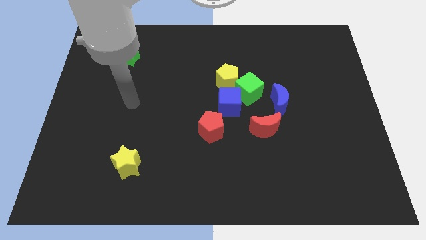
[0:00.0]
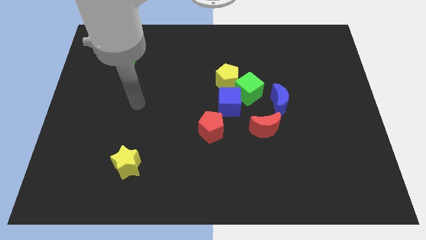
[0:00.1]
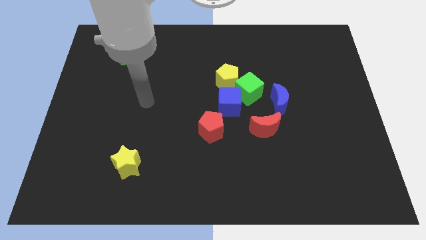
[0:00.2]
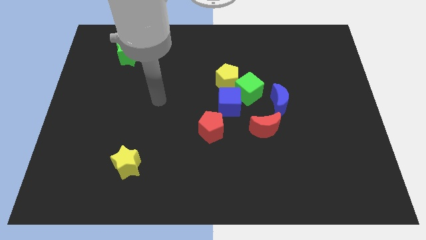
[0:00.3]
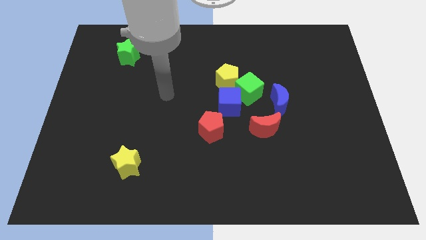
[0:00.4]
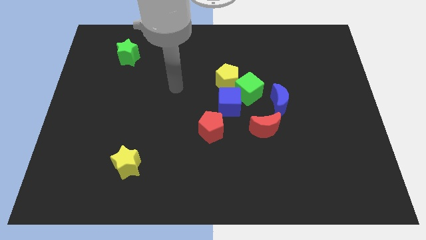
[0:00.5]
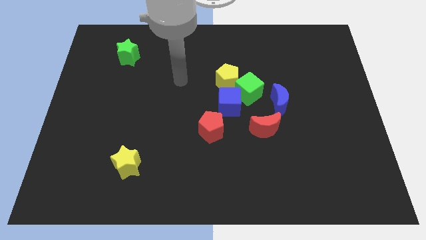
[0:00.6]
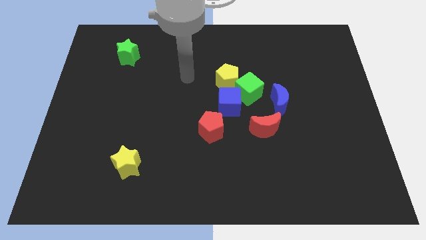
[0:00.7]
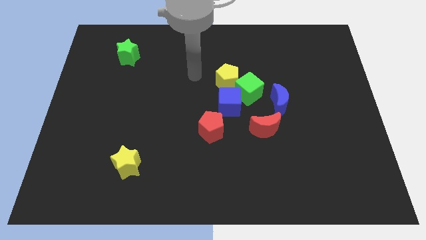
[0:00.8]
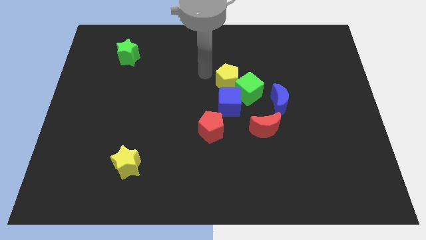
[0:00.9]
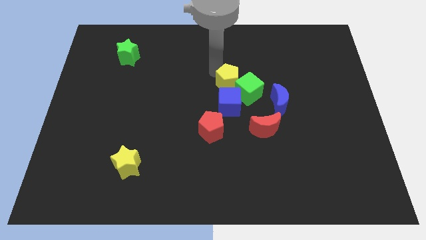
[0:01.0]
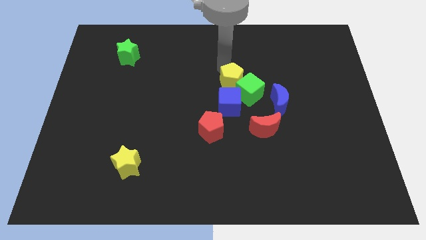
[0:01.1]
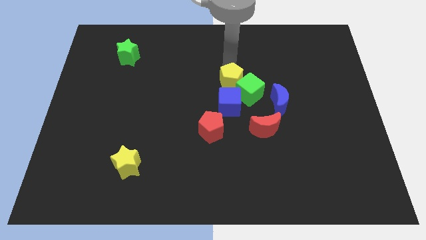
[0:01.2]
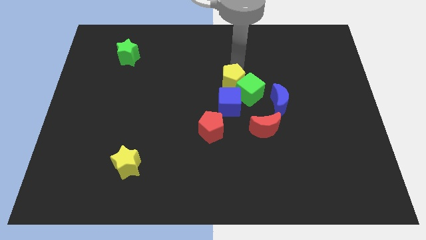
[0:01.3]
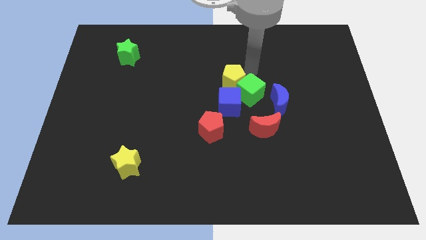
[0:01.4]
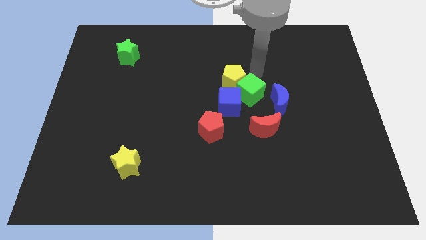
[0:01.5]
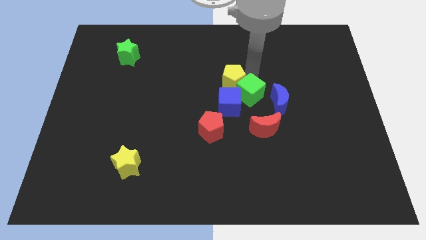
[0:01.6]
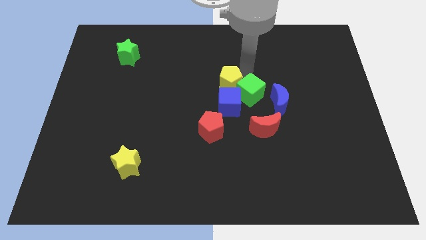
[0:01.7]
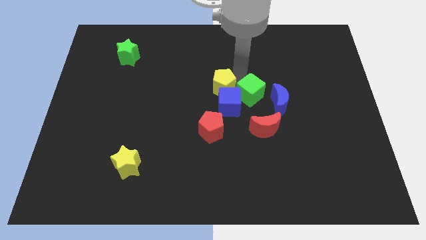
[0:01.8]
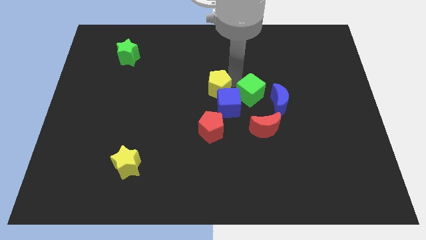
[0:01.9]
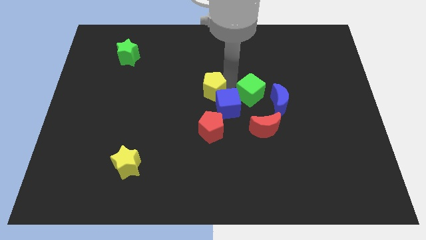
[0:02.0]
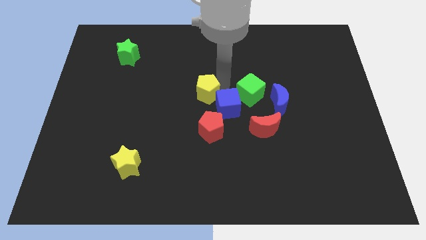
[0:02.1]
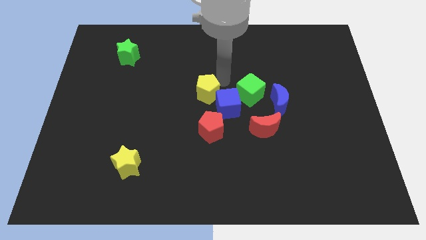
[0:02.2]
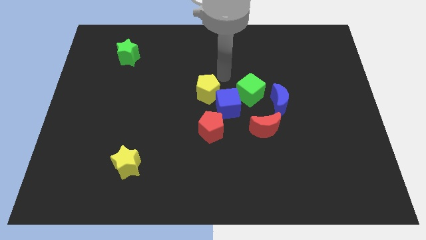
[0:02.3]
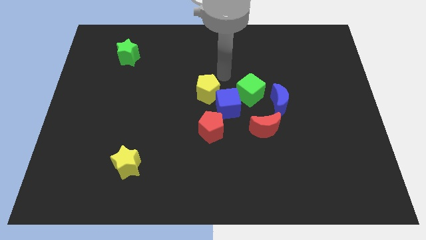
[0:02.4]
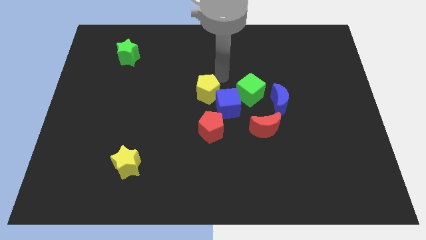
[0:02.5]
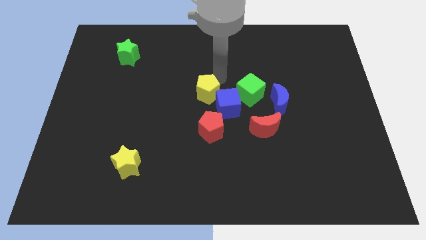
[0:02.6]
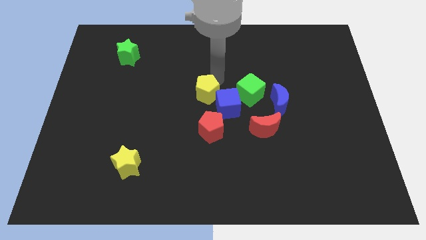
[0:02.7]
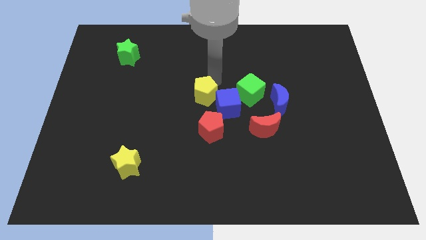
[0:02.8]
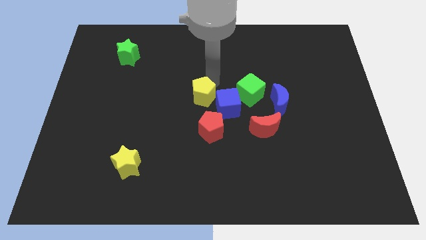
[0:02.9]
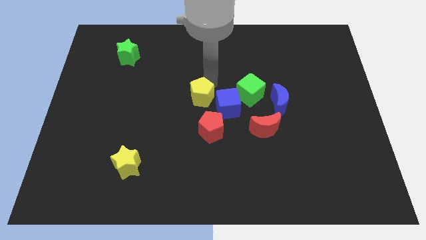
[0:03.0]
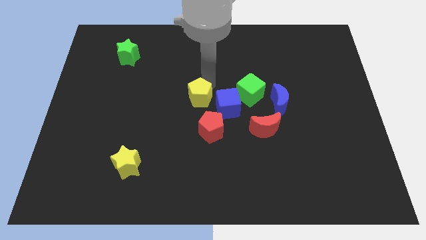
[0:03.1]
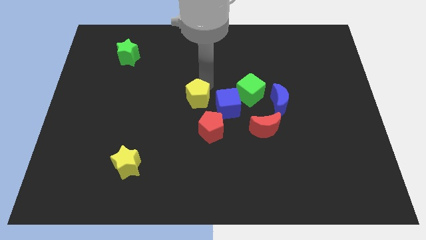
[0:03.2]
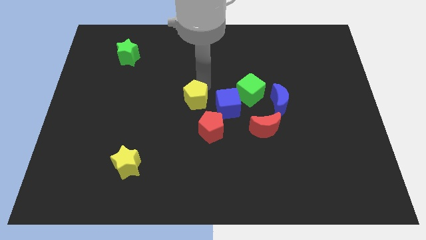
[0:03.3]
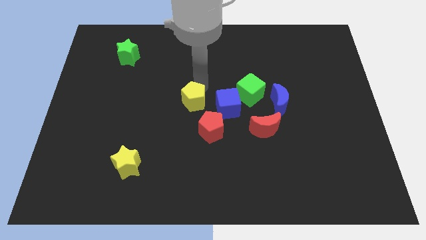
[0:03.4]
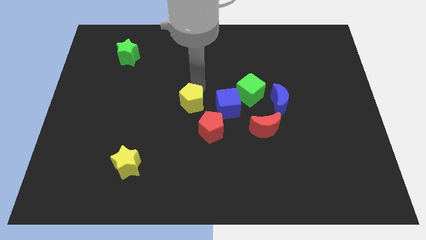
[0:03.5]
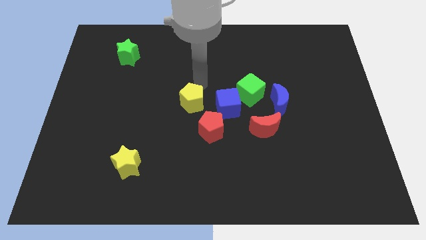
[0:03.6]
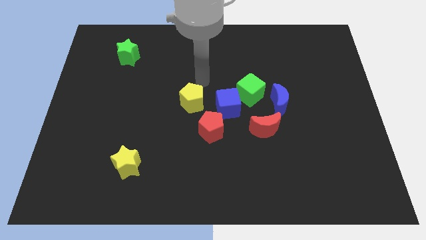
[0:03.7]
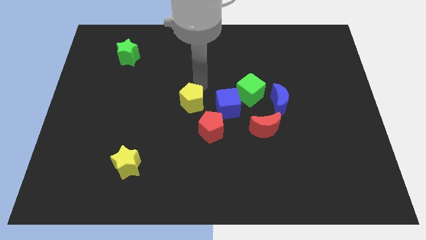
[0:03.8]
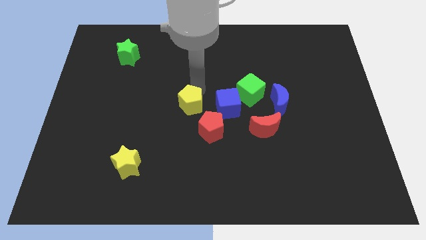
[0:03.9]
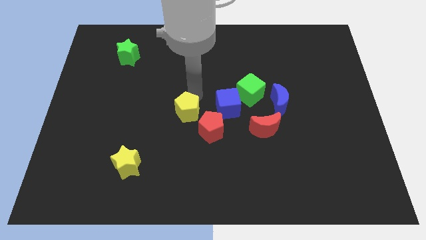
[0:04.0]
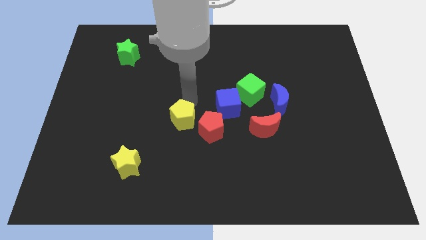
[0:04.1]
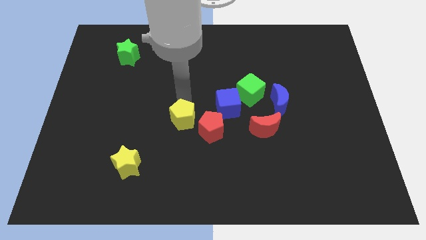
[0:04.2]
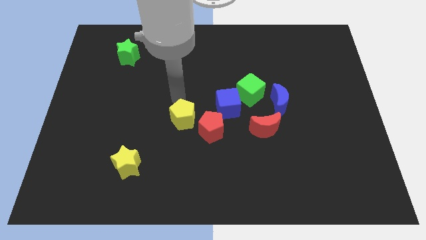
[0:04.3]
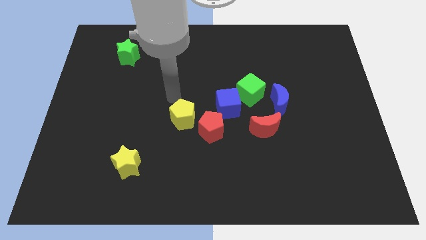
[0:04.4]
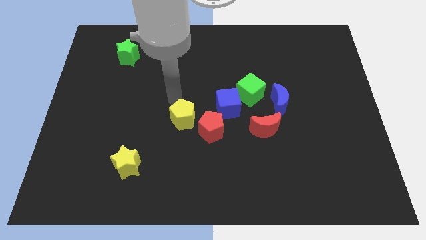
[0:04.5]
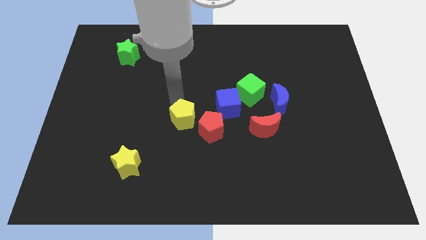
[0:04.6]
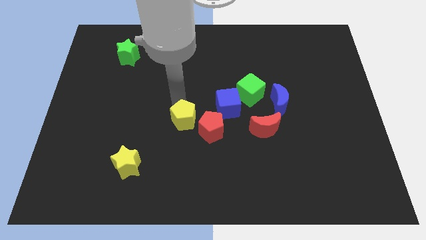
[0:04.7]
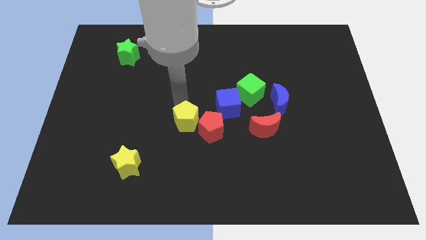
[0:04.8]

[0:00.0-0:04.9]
push the yellow pentagon down somewhat

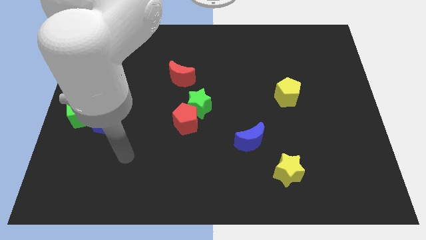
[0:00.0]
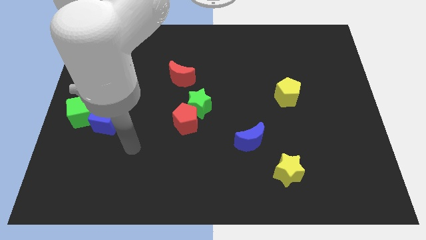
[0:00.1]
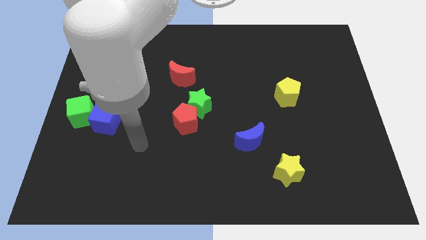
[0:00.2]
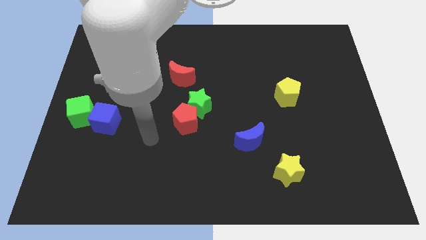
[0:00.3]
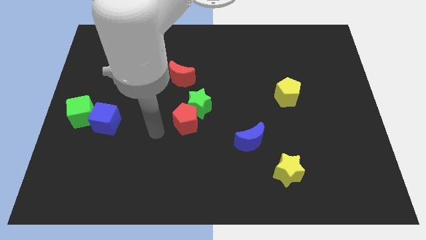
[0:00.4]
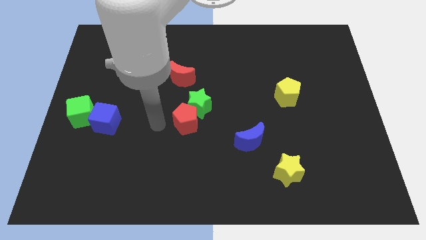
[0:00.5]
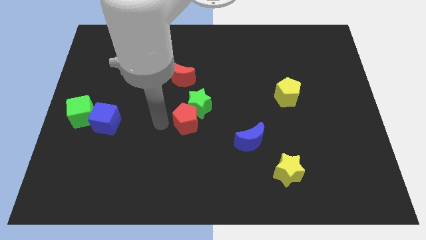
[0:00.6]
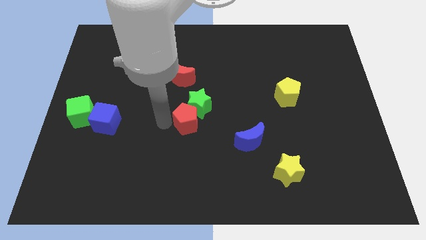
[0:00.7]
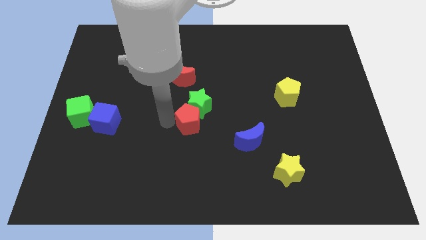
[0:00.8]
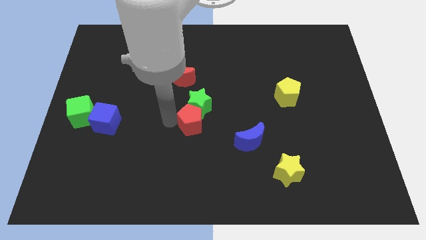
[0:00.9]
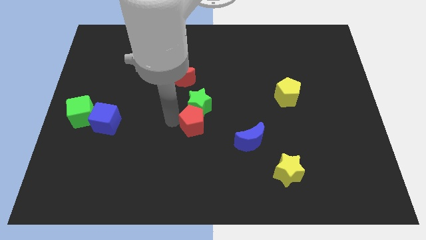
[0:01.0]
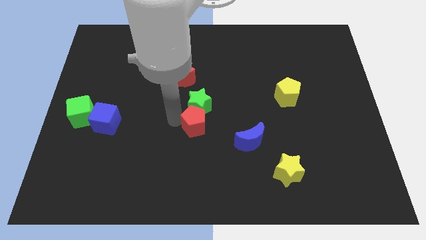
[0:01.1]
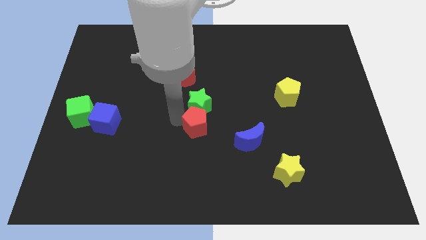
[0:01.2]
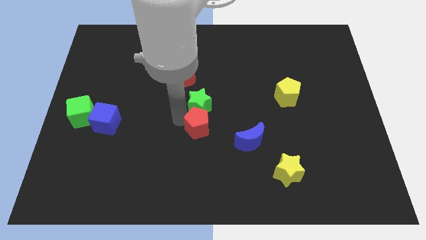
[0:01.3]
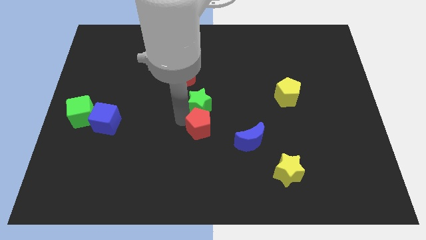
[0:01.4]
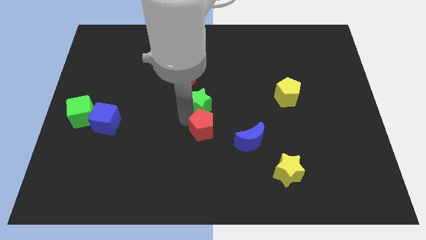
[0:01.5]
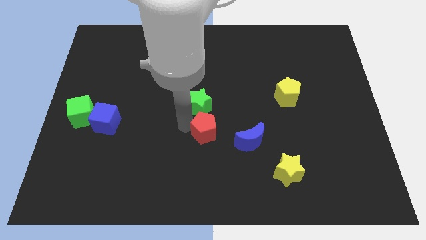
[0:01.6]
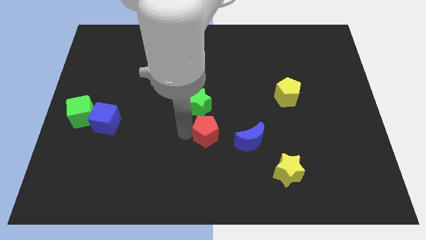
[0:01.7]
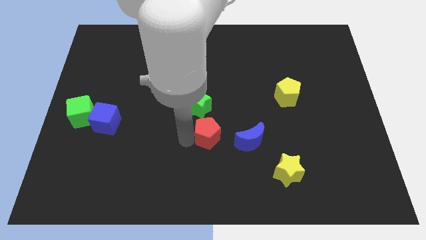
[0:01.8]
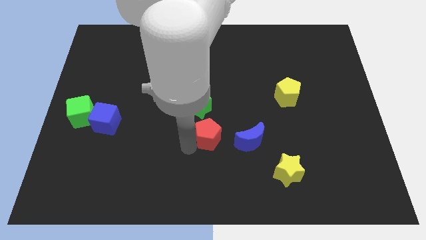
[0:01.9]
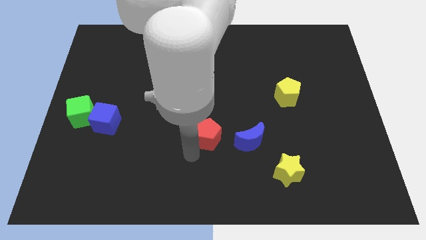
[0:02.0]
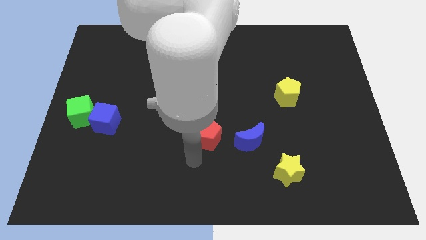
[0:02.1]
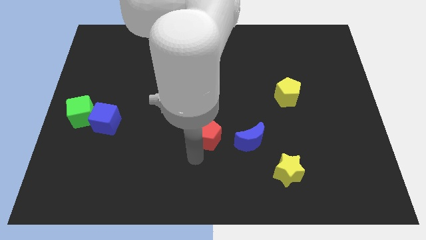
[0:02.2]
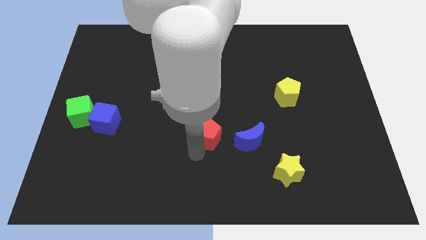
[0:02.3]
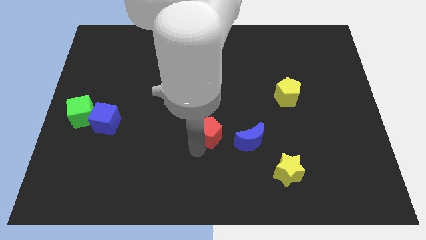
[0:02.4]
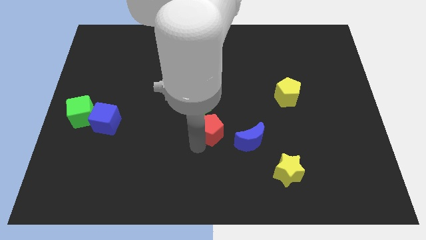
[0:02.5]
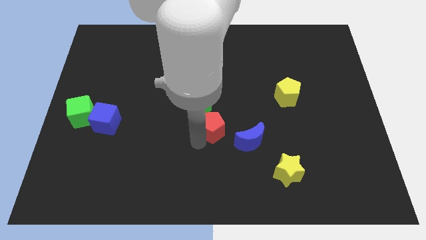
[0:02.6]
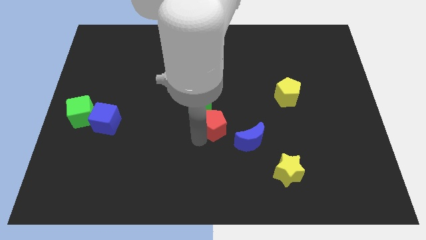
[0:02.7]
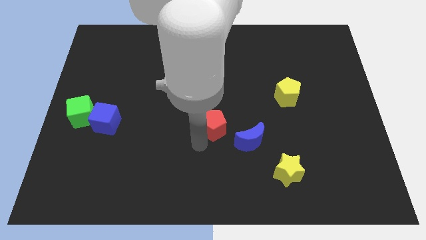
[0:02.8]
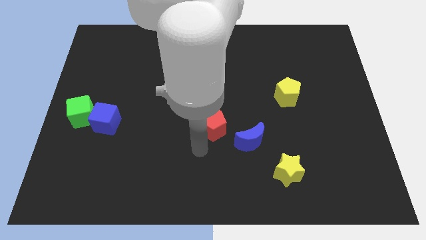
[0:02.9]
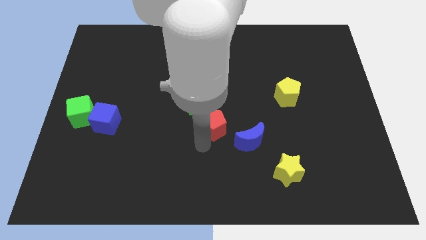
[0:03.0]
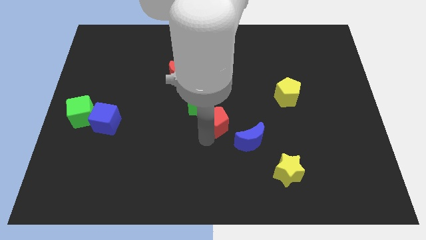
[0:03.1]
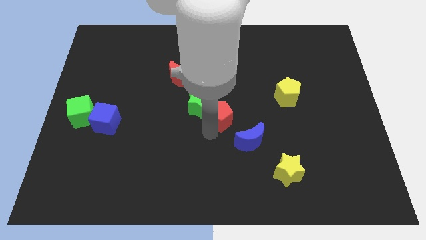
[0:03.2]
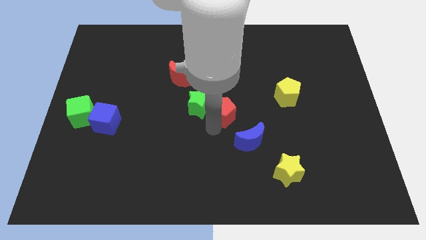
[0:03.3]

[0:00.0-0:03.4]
slightly slide the red pentagon up and then to the right

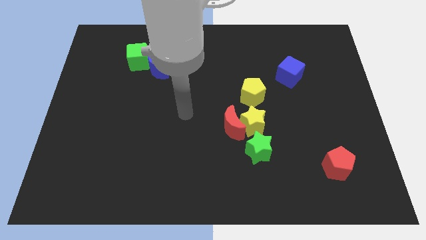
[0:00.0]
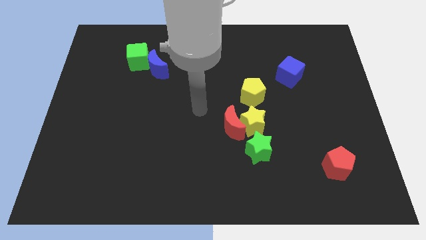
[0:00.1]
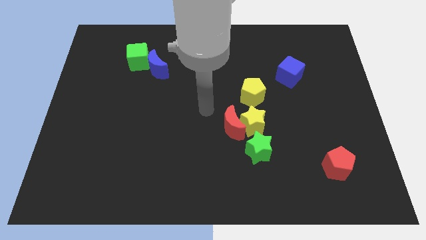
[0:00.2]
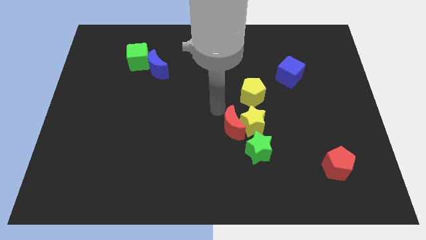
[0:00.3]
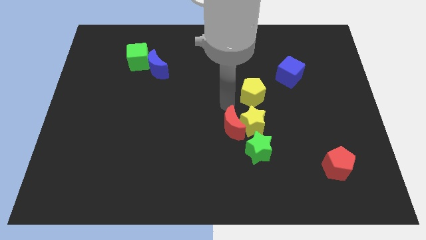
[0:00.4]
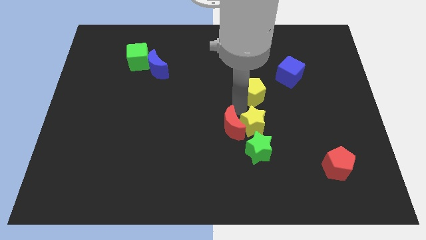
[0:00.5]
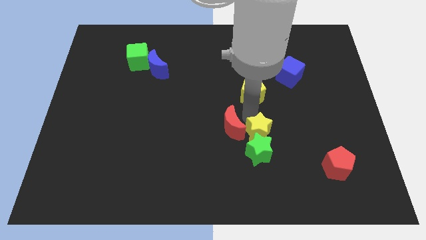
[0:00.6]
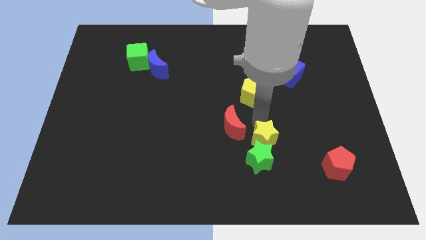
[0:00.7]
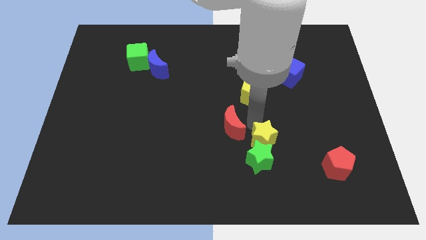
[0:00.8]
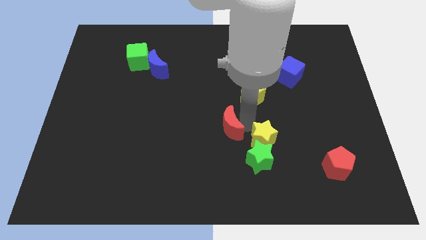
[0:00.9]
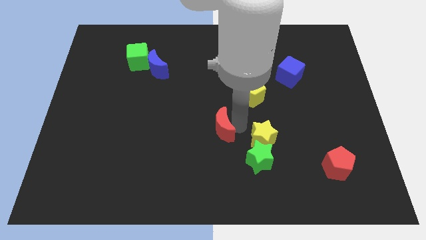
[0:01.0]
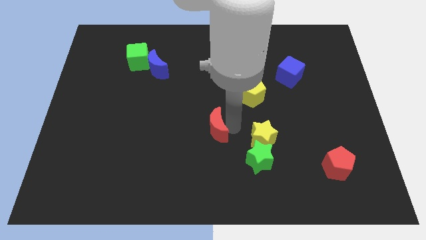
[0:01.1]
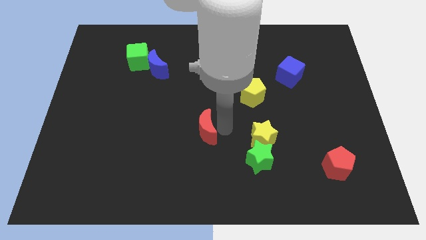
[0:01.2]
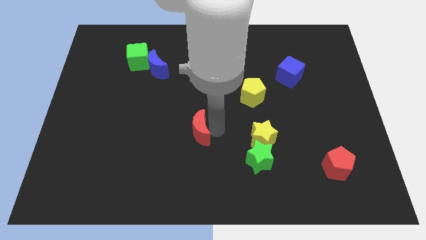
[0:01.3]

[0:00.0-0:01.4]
move the red moon left a little bit
